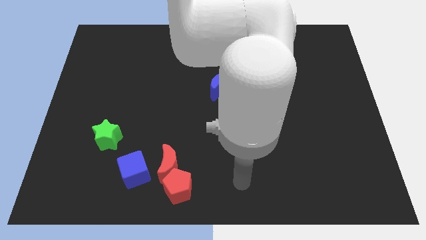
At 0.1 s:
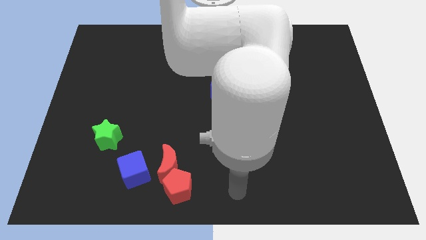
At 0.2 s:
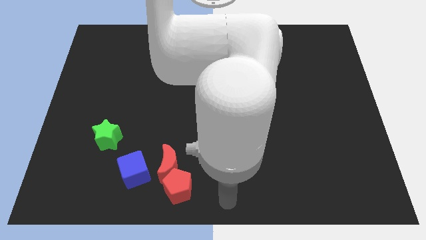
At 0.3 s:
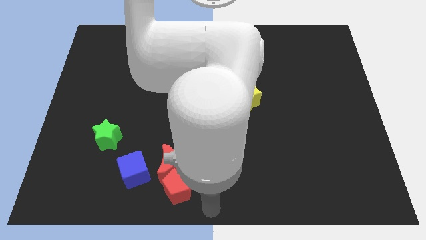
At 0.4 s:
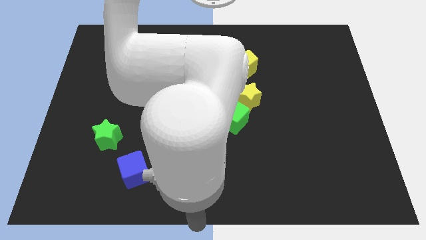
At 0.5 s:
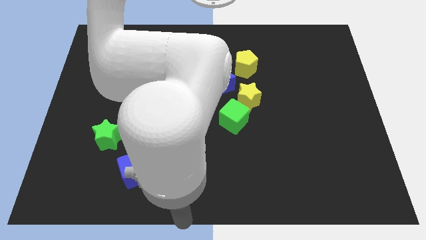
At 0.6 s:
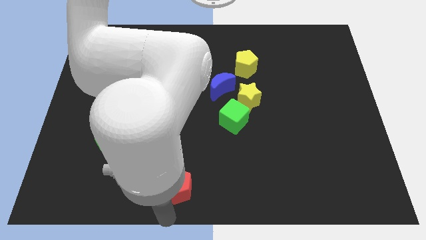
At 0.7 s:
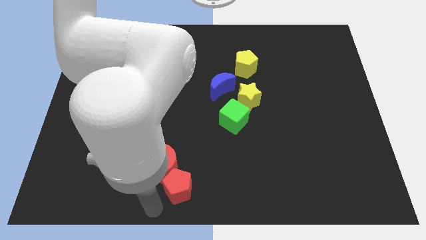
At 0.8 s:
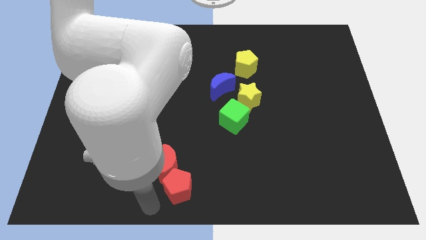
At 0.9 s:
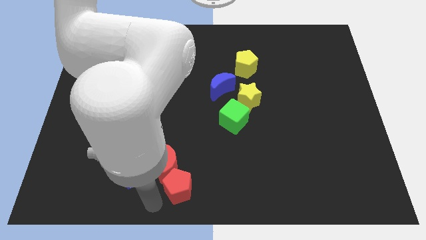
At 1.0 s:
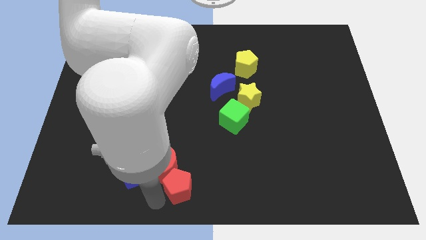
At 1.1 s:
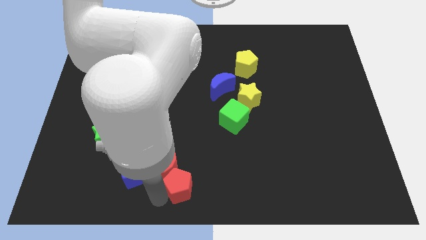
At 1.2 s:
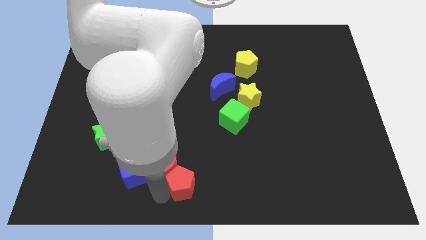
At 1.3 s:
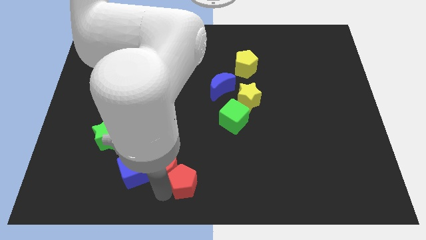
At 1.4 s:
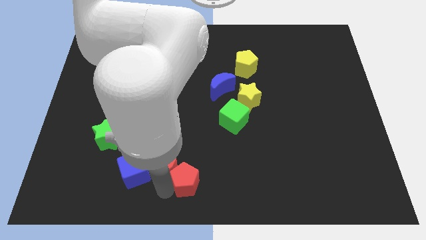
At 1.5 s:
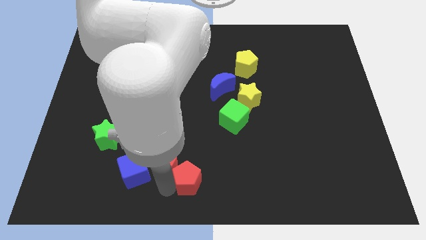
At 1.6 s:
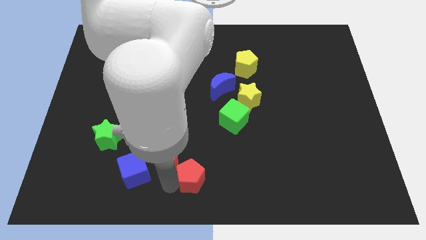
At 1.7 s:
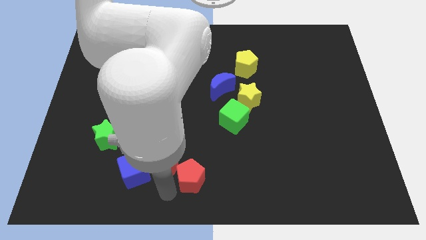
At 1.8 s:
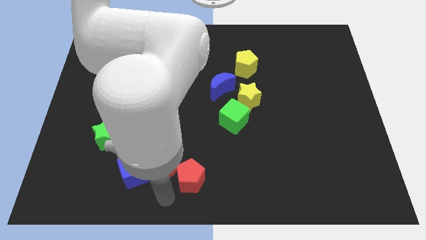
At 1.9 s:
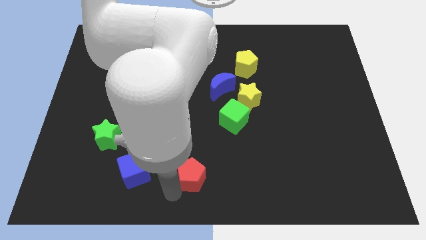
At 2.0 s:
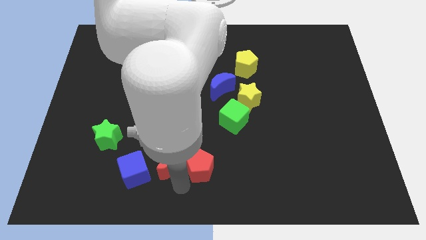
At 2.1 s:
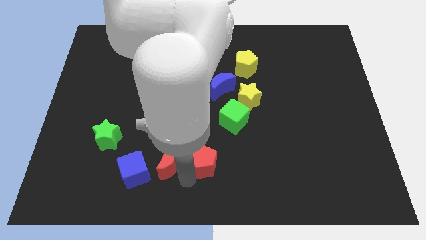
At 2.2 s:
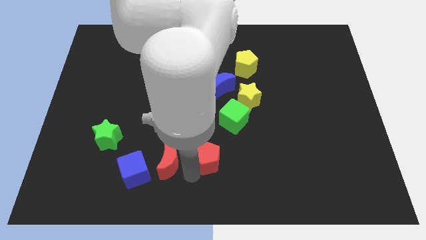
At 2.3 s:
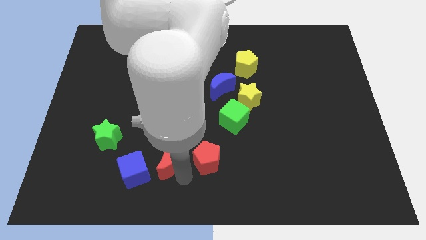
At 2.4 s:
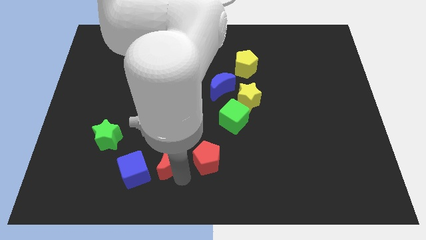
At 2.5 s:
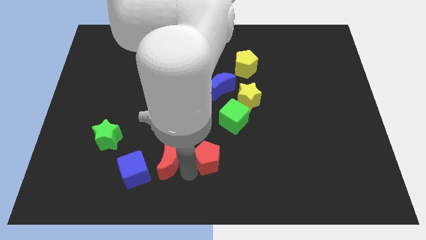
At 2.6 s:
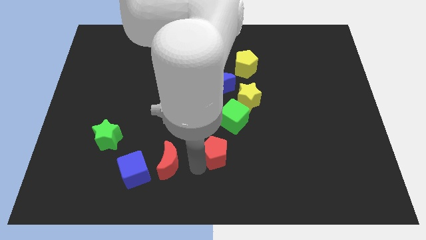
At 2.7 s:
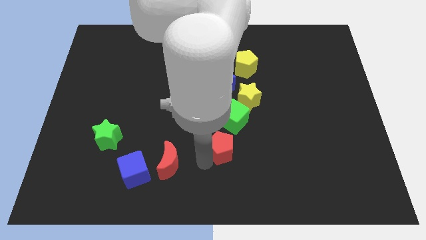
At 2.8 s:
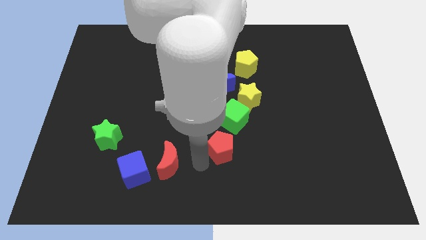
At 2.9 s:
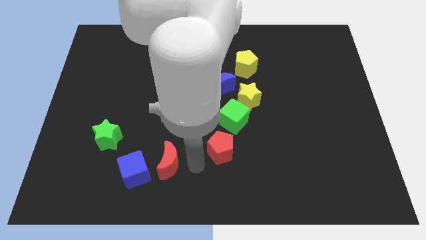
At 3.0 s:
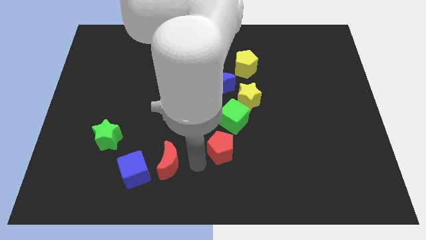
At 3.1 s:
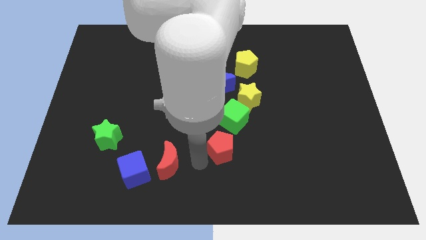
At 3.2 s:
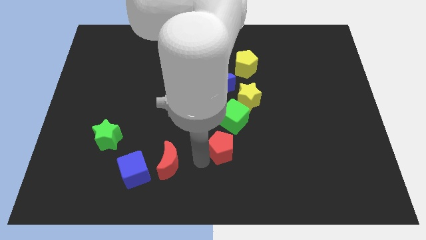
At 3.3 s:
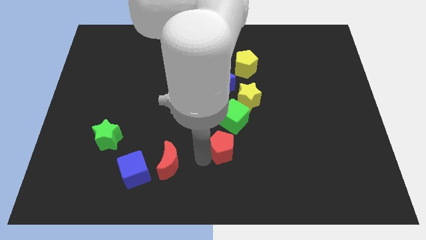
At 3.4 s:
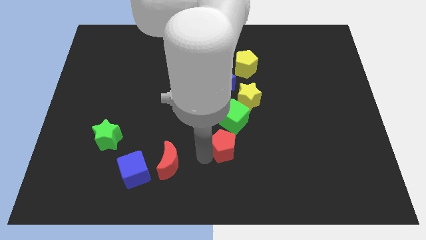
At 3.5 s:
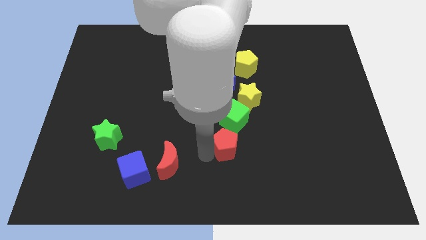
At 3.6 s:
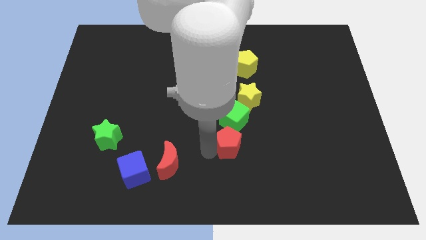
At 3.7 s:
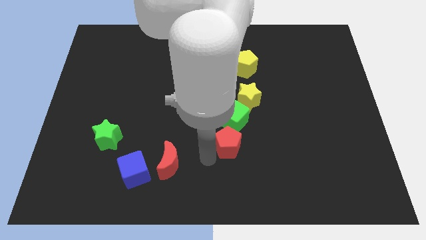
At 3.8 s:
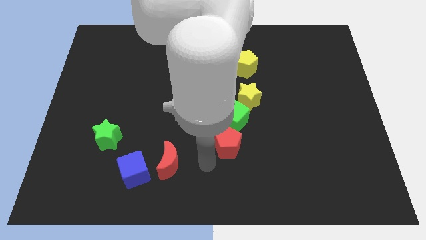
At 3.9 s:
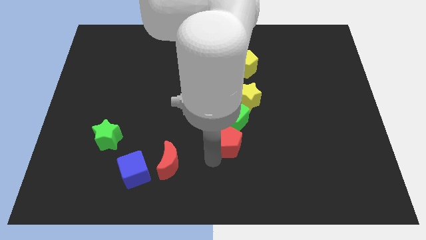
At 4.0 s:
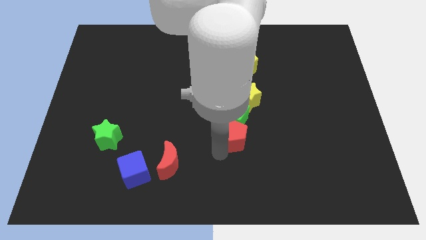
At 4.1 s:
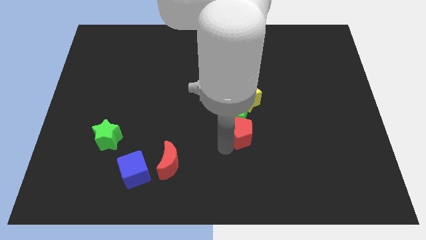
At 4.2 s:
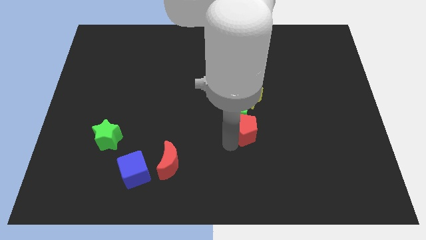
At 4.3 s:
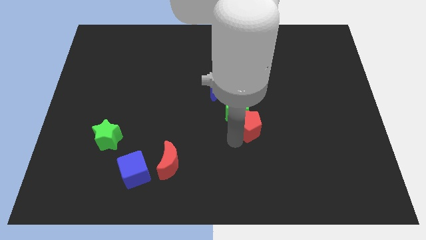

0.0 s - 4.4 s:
push the red pentagon diagonally upwards and right

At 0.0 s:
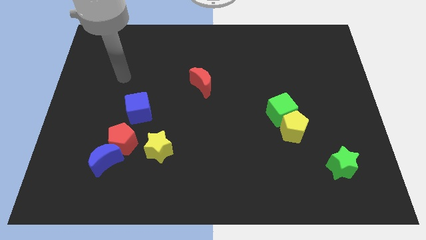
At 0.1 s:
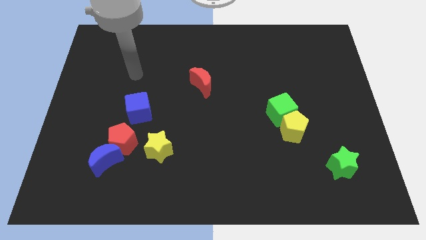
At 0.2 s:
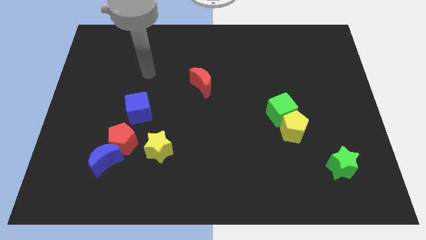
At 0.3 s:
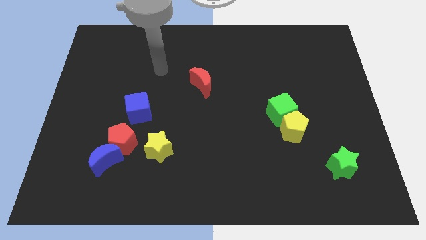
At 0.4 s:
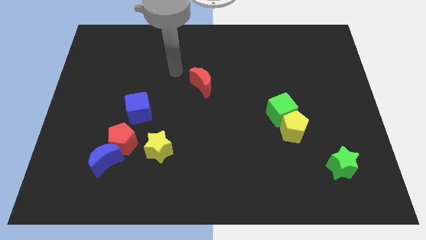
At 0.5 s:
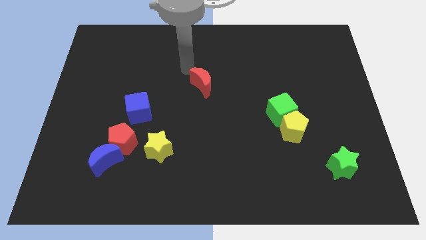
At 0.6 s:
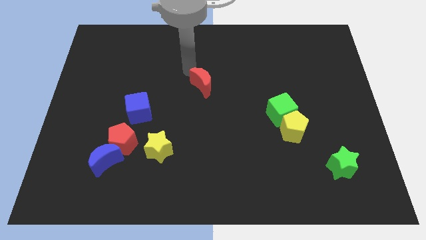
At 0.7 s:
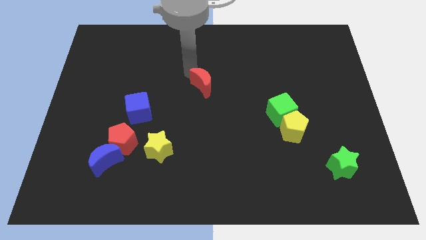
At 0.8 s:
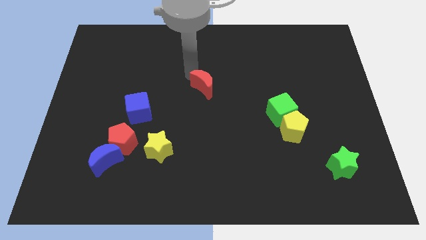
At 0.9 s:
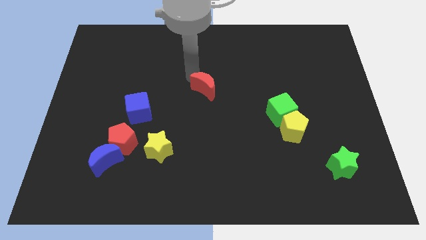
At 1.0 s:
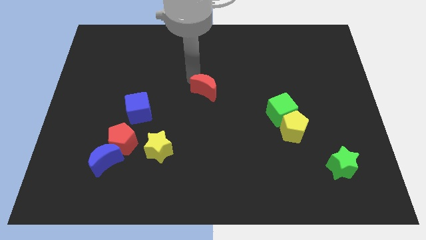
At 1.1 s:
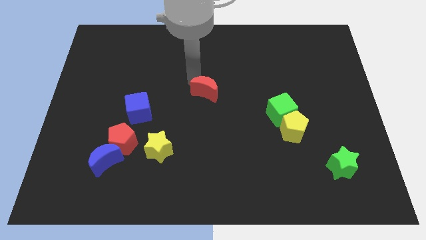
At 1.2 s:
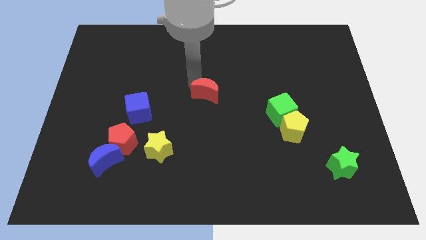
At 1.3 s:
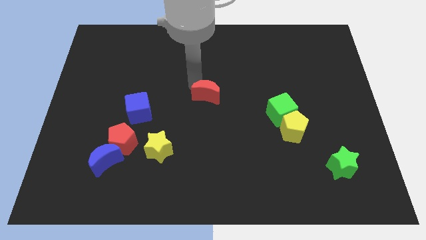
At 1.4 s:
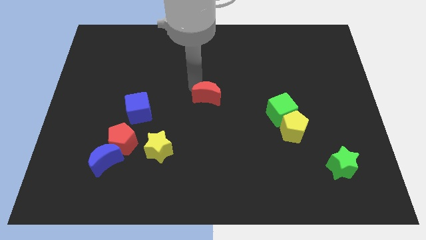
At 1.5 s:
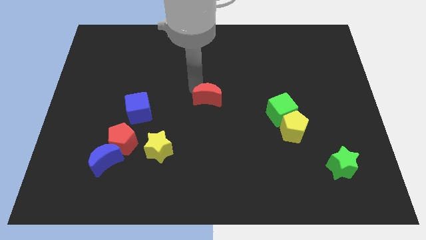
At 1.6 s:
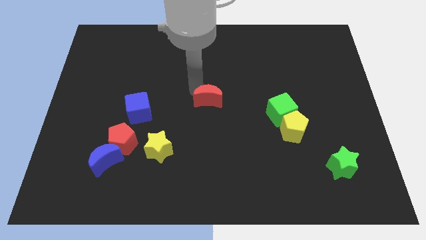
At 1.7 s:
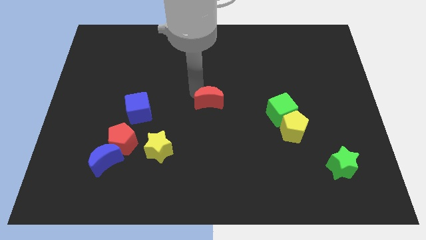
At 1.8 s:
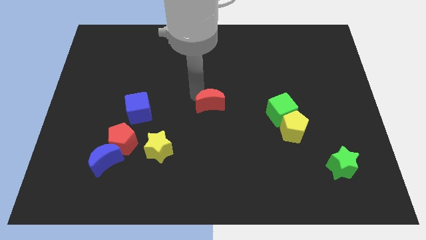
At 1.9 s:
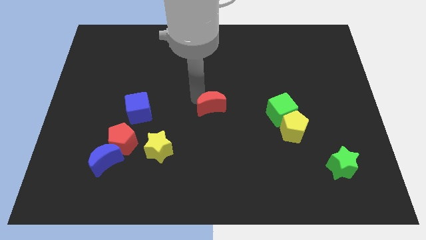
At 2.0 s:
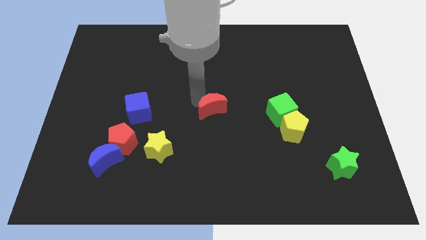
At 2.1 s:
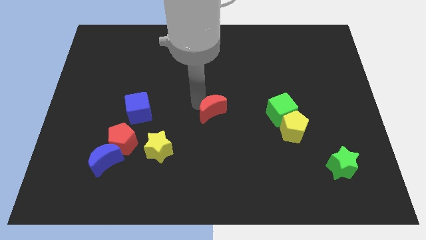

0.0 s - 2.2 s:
move the red moon down and to the right a bit

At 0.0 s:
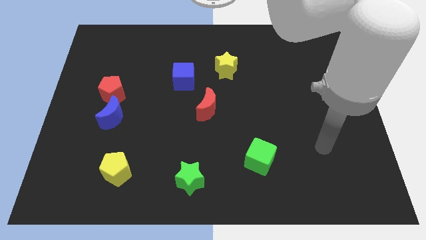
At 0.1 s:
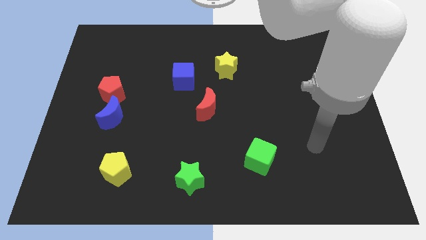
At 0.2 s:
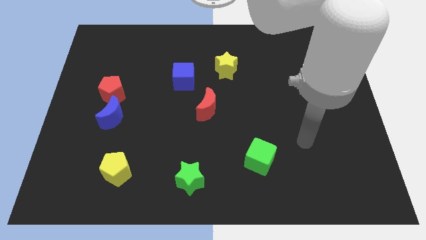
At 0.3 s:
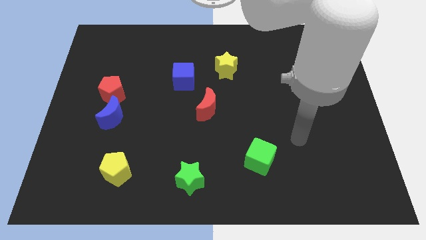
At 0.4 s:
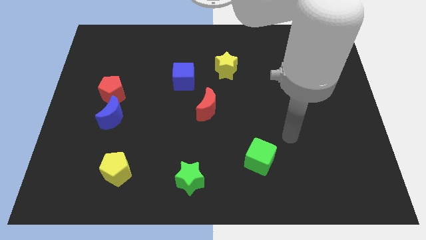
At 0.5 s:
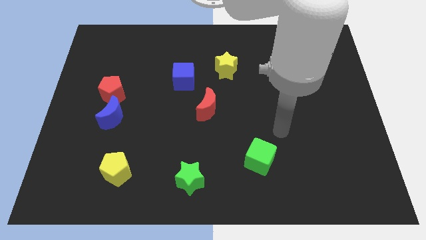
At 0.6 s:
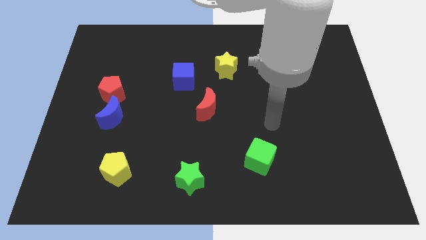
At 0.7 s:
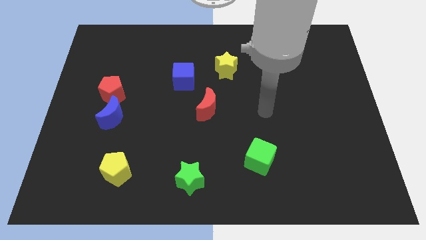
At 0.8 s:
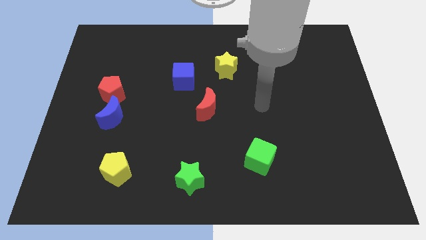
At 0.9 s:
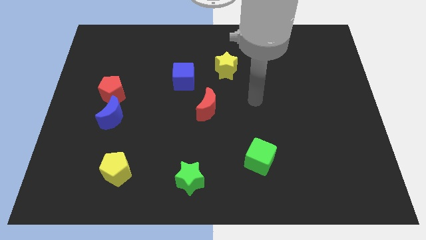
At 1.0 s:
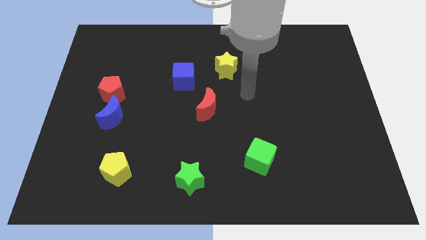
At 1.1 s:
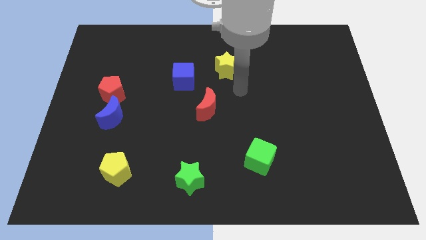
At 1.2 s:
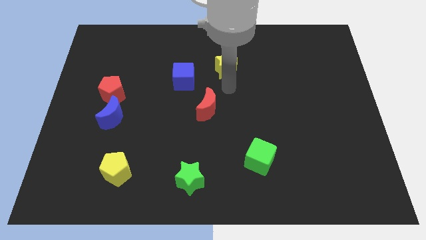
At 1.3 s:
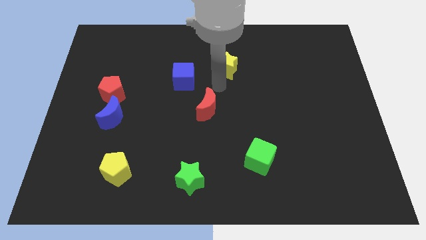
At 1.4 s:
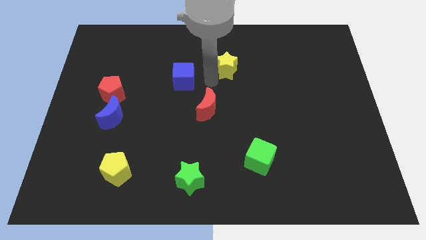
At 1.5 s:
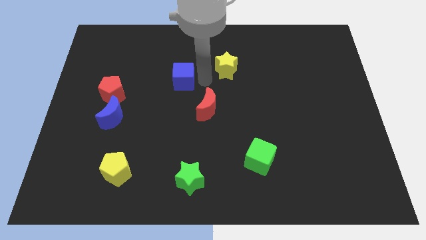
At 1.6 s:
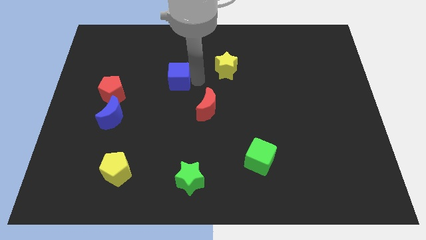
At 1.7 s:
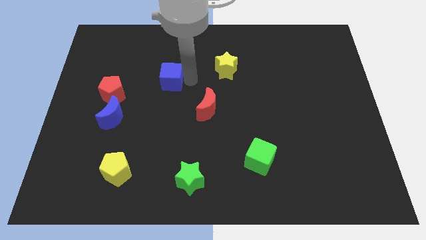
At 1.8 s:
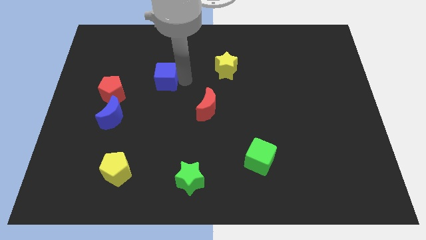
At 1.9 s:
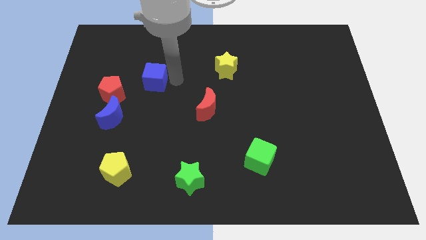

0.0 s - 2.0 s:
push the blue cube left a little
